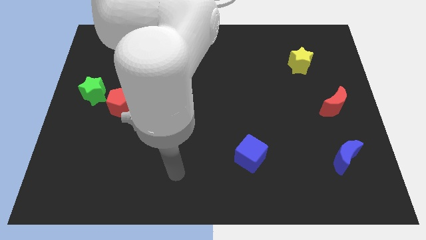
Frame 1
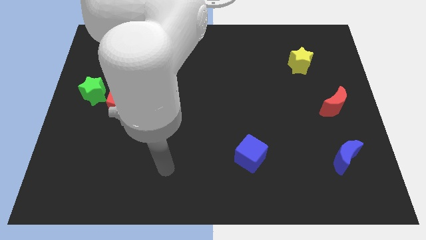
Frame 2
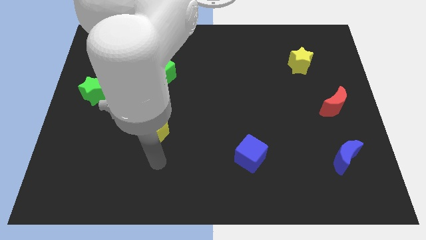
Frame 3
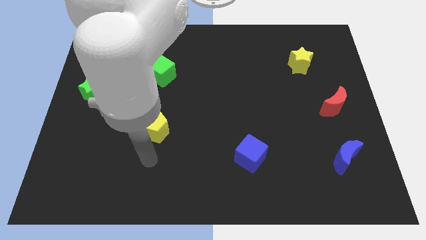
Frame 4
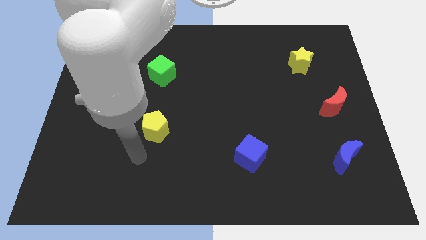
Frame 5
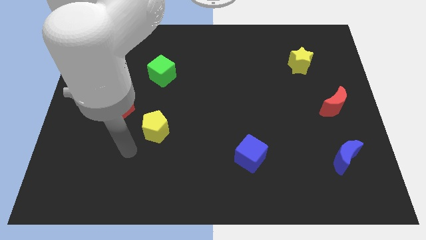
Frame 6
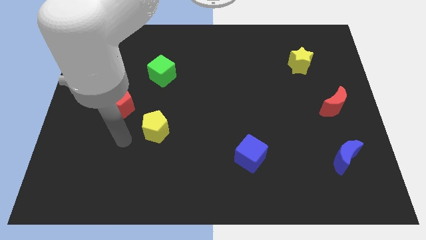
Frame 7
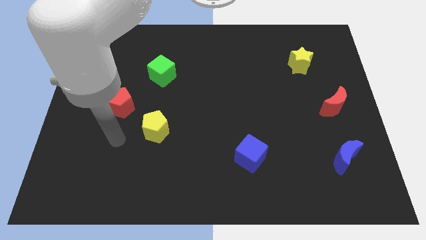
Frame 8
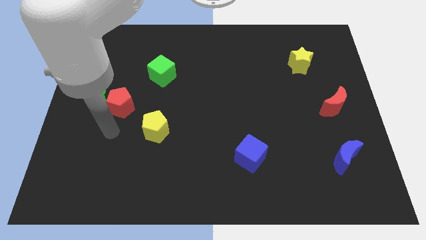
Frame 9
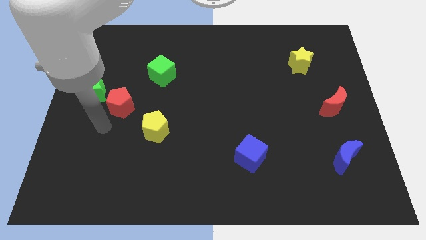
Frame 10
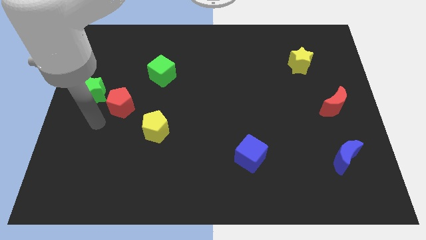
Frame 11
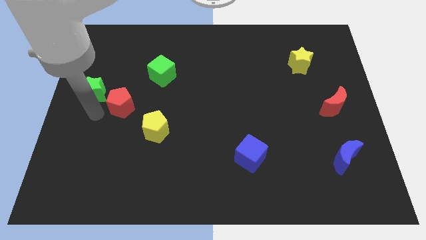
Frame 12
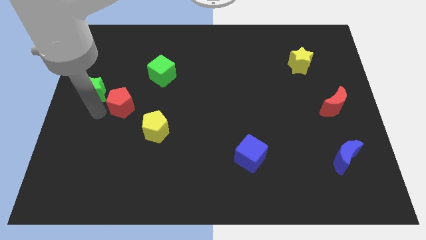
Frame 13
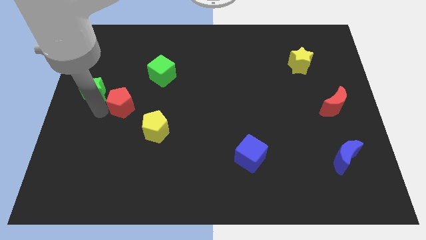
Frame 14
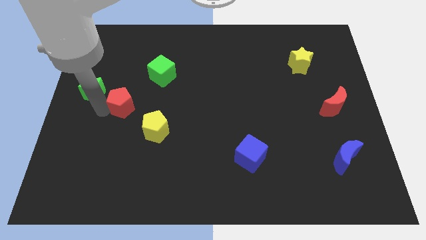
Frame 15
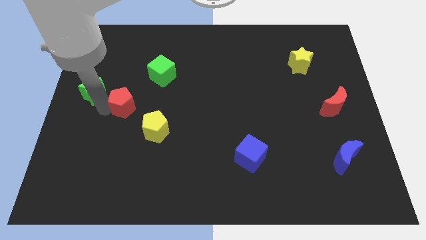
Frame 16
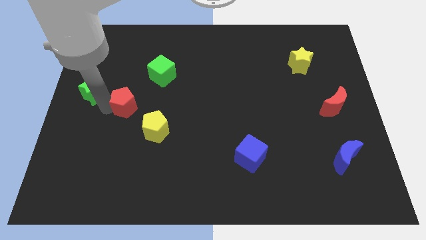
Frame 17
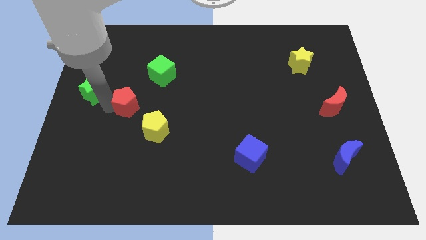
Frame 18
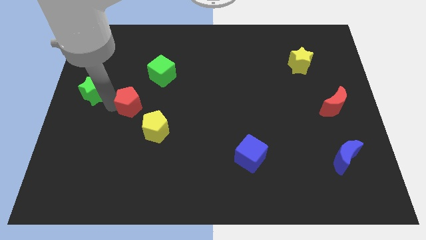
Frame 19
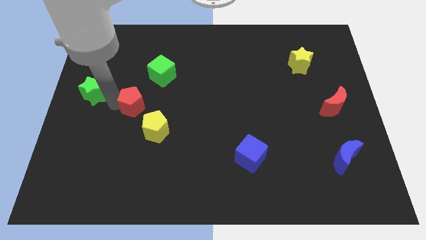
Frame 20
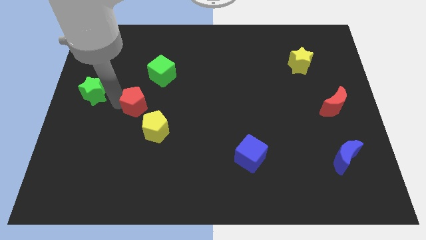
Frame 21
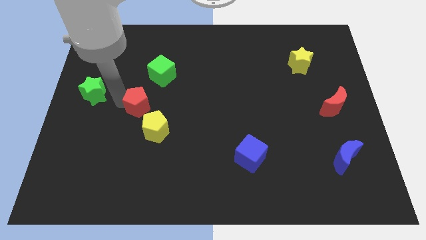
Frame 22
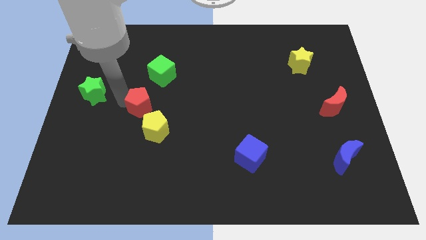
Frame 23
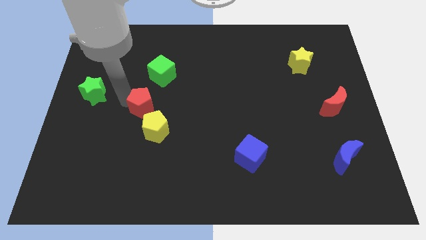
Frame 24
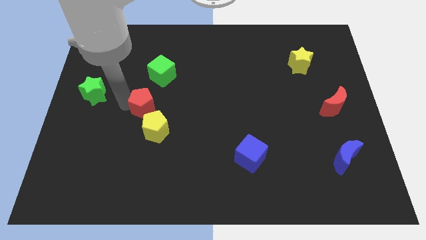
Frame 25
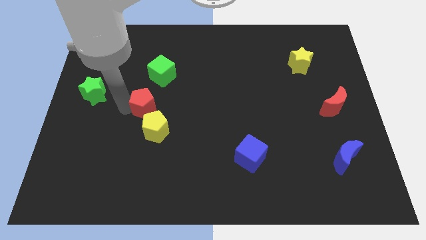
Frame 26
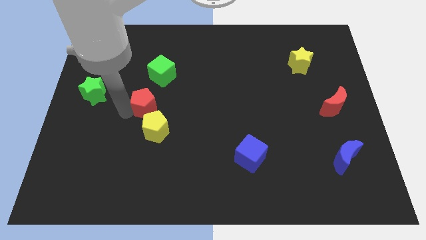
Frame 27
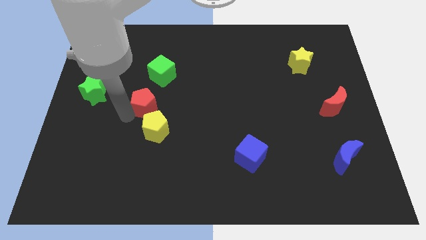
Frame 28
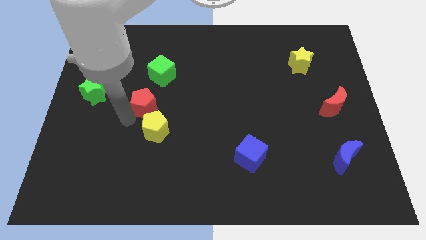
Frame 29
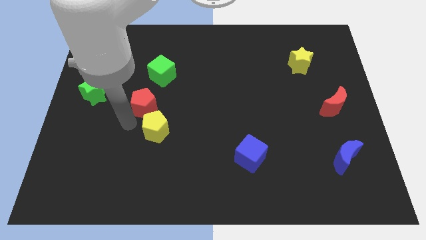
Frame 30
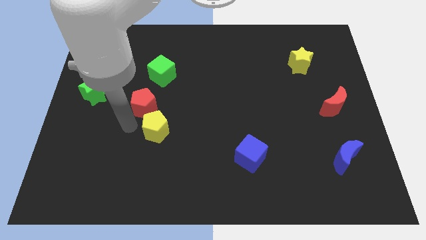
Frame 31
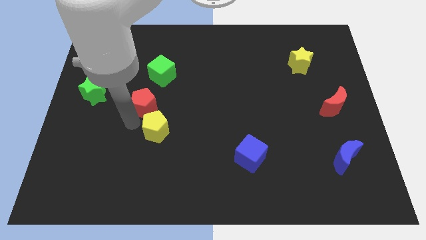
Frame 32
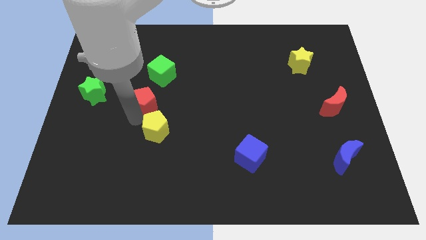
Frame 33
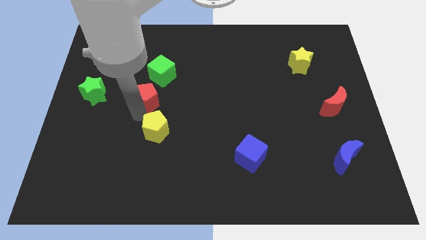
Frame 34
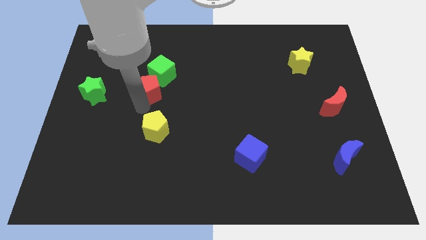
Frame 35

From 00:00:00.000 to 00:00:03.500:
slide the red pentagon upwards and then to the right a little bit

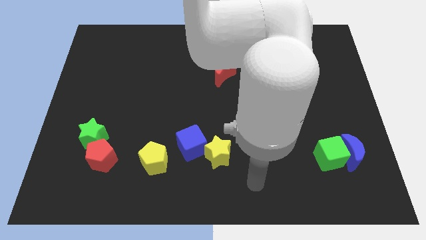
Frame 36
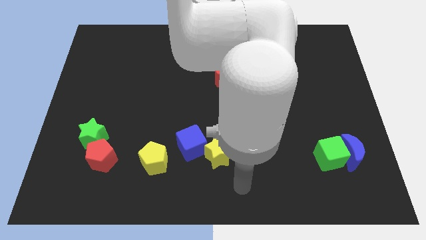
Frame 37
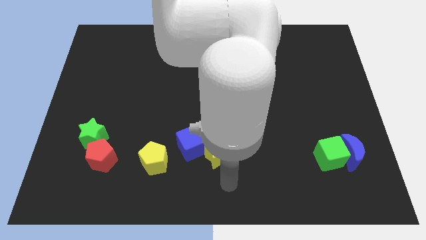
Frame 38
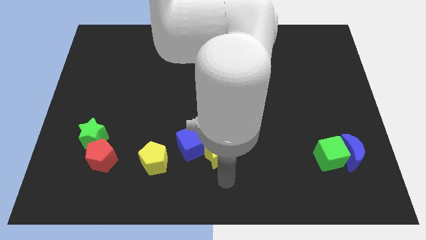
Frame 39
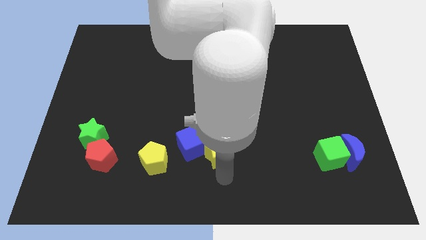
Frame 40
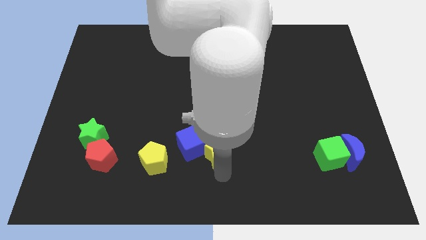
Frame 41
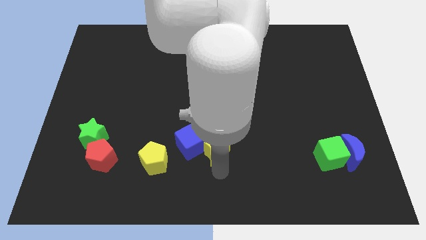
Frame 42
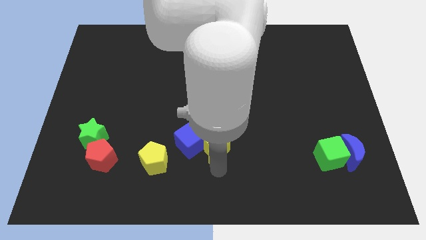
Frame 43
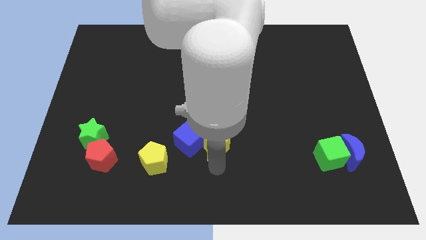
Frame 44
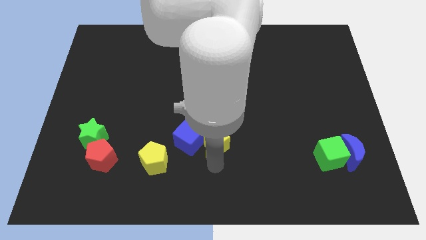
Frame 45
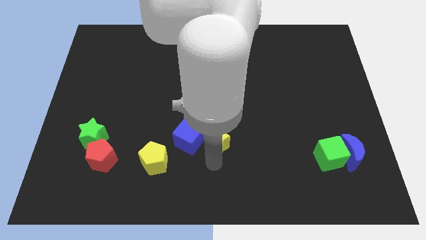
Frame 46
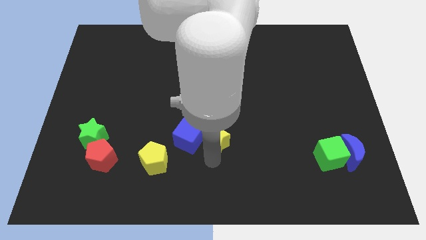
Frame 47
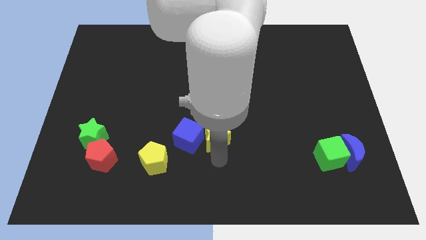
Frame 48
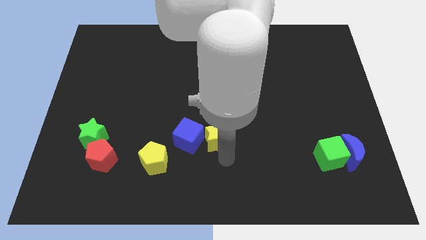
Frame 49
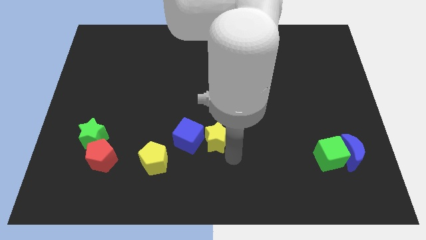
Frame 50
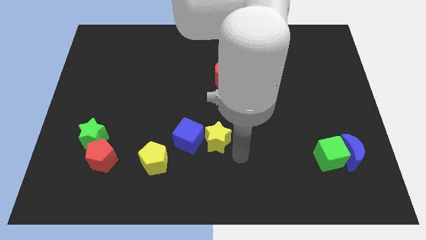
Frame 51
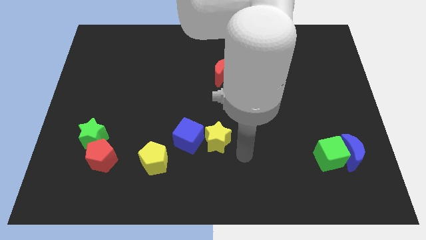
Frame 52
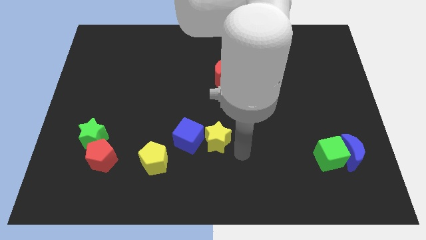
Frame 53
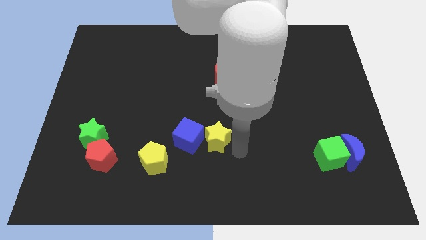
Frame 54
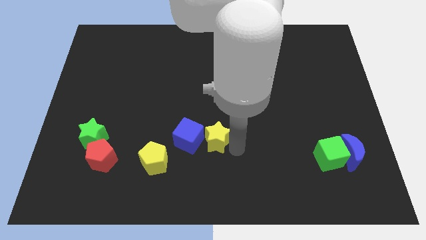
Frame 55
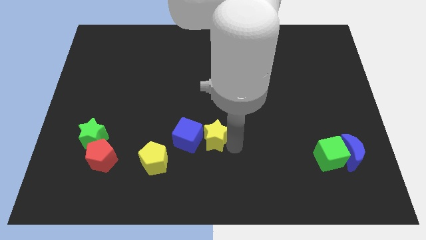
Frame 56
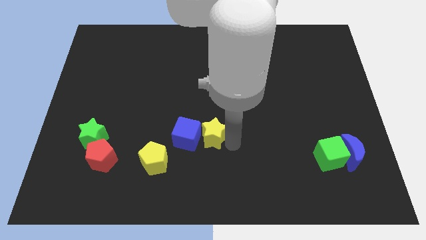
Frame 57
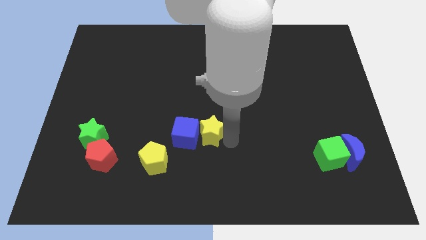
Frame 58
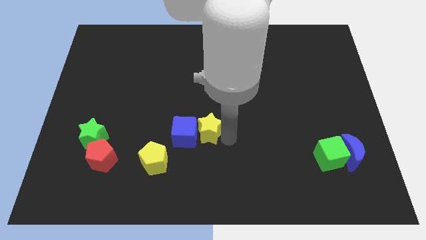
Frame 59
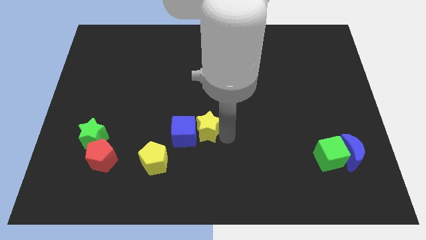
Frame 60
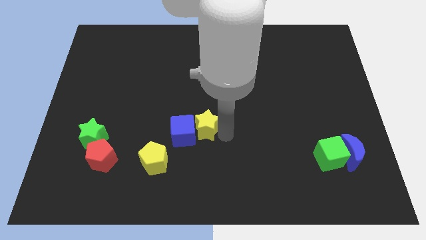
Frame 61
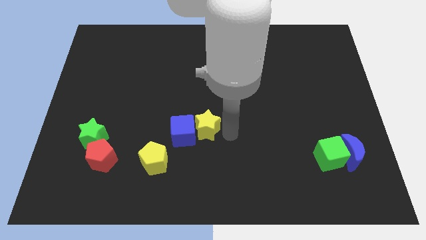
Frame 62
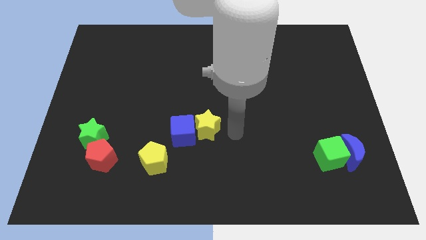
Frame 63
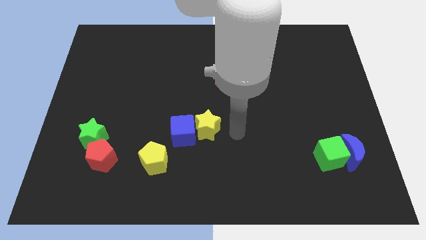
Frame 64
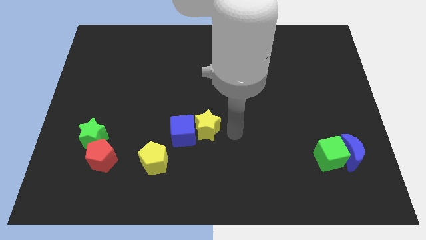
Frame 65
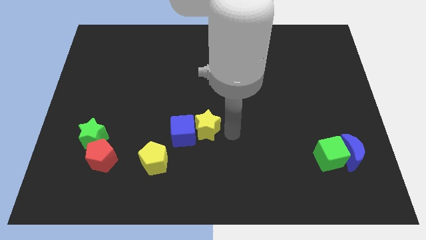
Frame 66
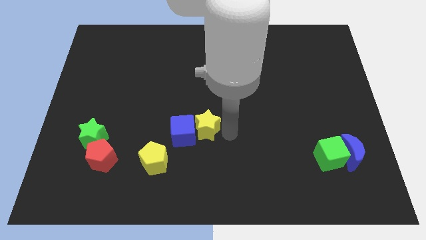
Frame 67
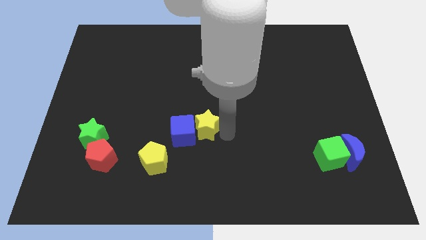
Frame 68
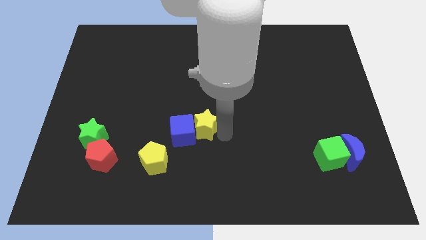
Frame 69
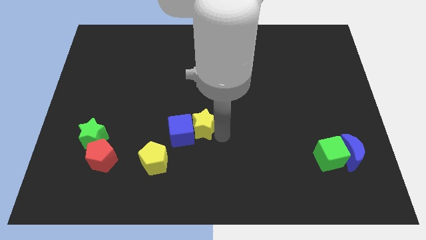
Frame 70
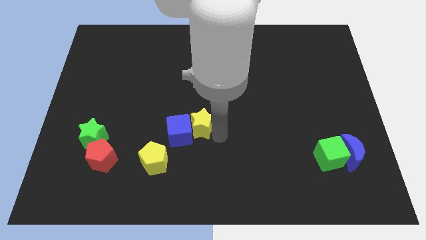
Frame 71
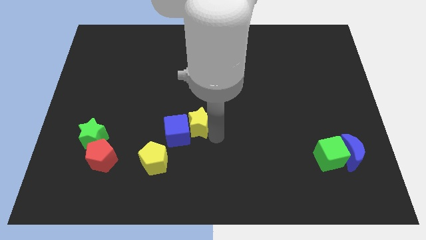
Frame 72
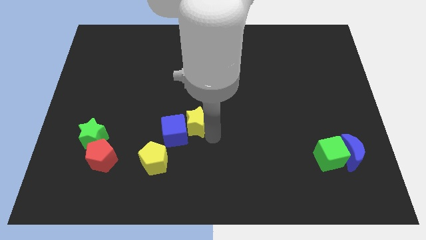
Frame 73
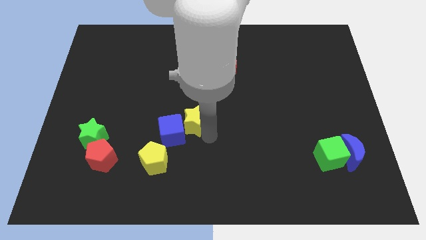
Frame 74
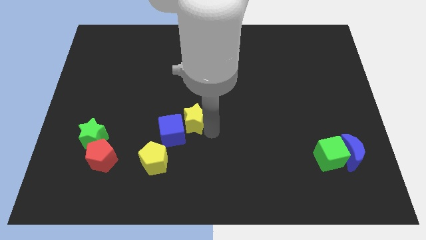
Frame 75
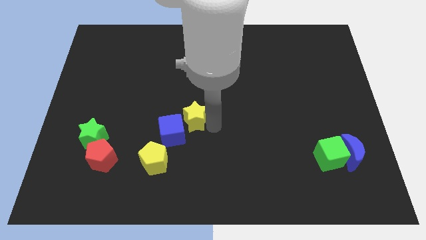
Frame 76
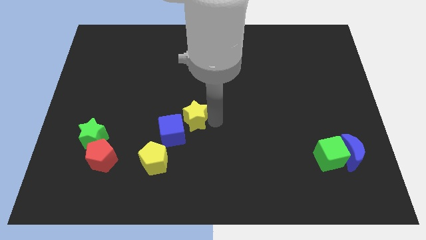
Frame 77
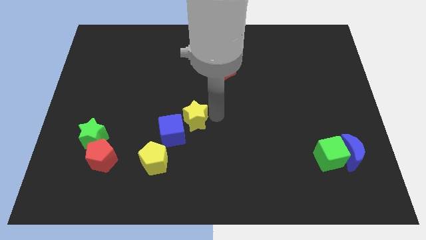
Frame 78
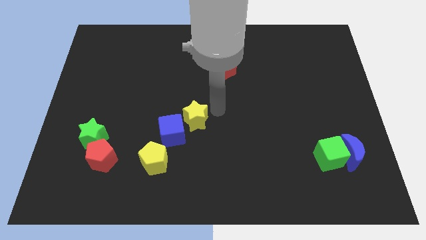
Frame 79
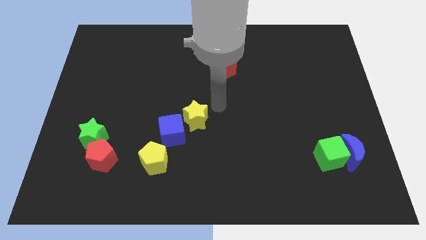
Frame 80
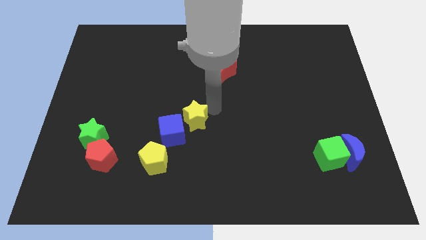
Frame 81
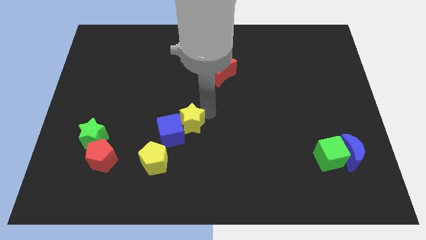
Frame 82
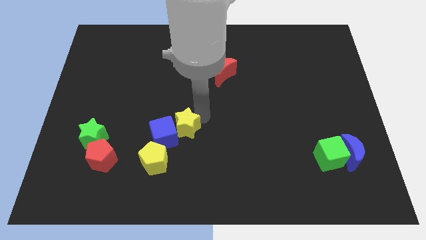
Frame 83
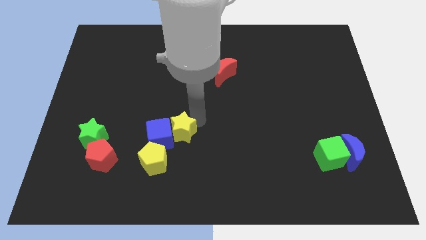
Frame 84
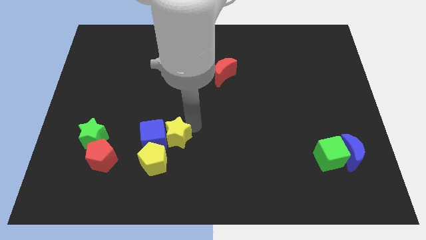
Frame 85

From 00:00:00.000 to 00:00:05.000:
slightly slide the yellow star left
